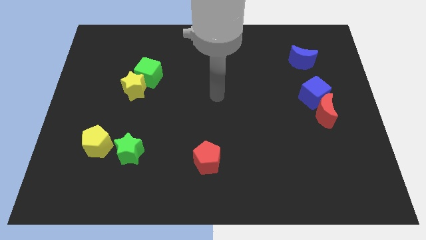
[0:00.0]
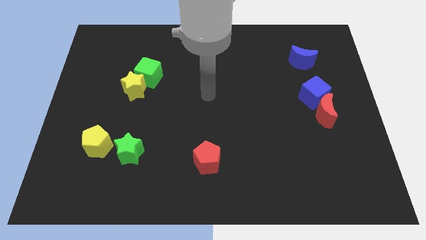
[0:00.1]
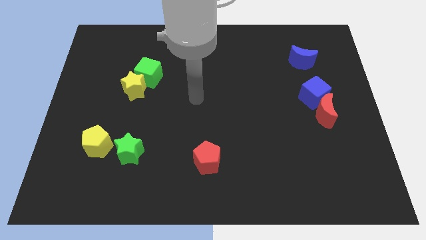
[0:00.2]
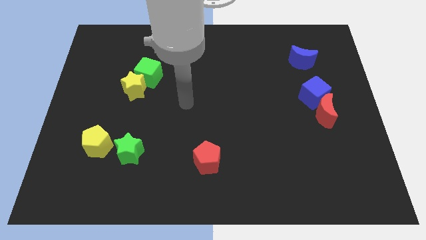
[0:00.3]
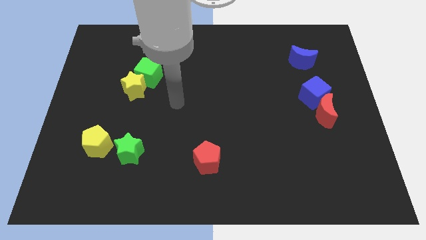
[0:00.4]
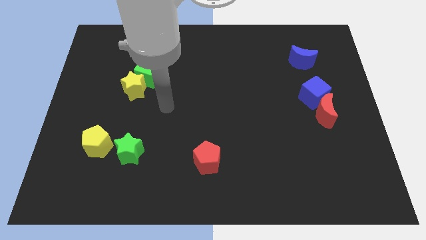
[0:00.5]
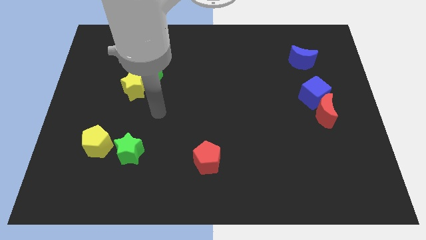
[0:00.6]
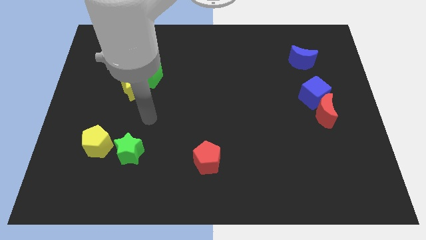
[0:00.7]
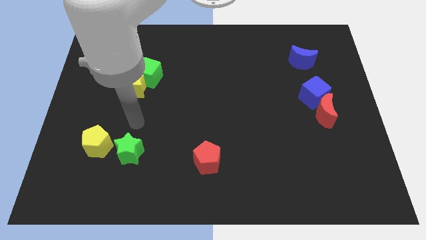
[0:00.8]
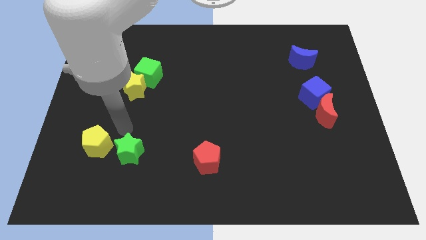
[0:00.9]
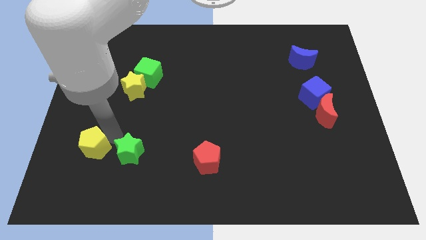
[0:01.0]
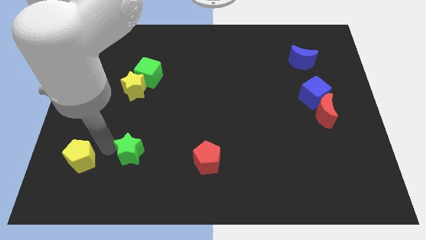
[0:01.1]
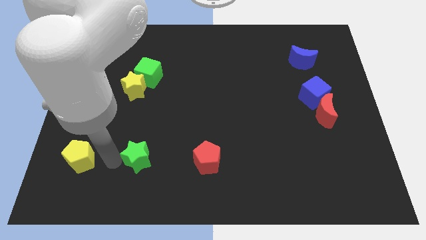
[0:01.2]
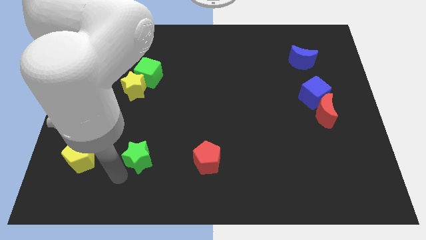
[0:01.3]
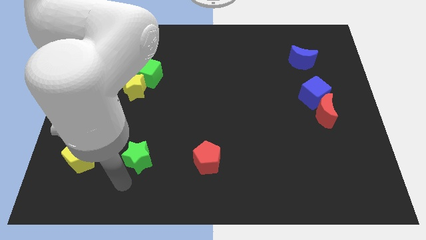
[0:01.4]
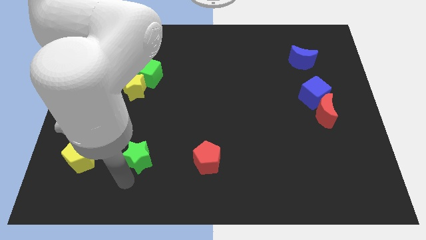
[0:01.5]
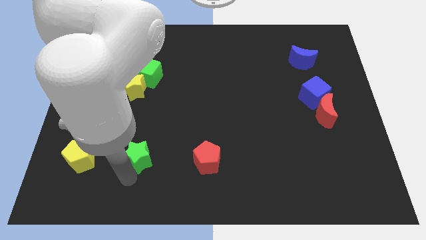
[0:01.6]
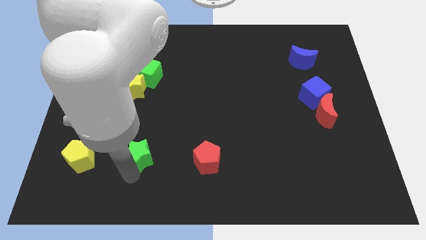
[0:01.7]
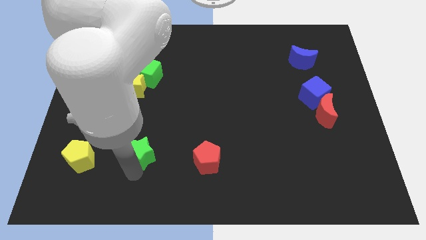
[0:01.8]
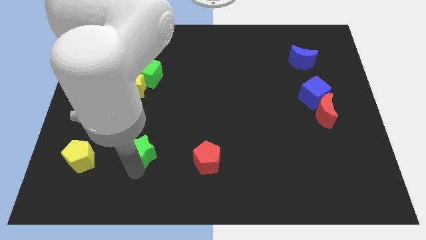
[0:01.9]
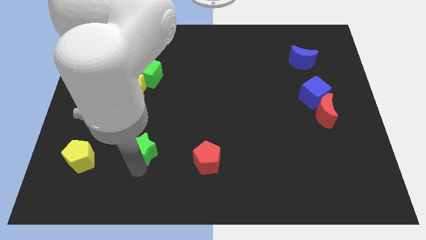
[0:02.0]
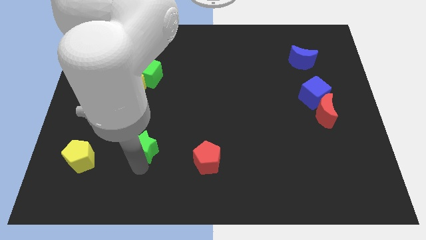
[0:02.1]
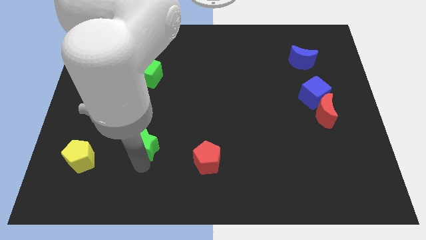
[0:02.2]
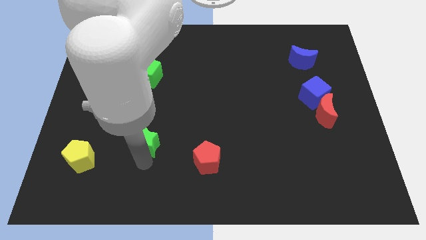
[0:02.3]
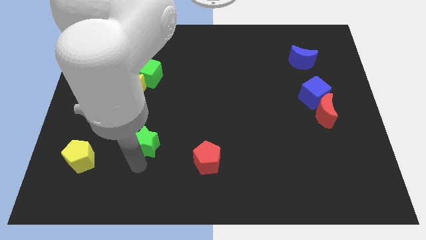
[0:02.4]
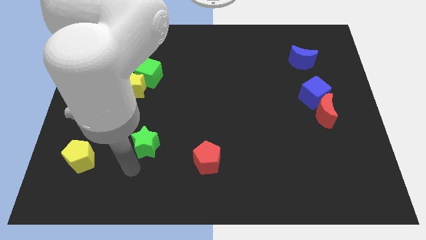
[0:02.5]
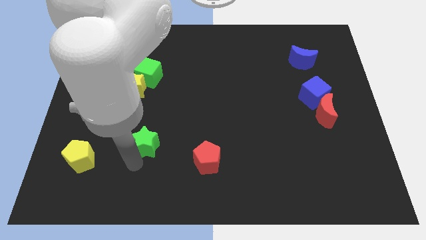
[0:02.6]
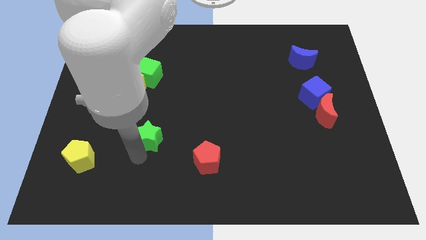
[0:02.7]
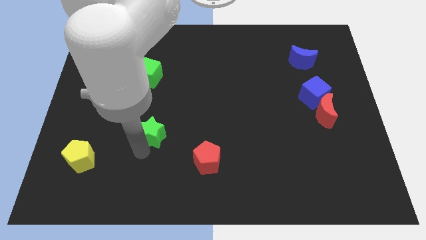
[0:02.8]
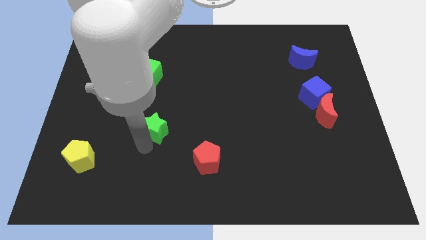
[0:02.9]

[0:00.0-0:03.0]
slide the green star up and right a bit

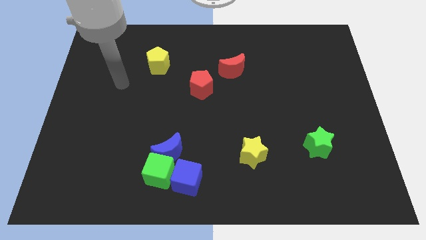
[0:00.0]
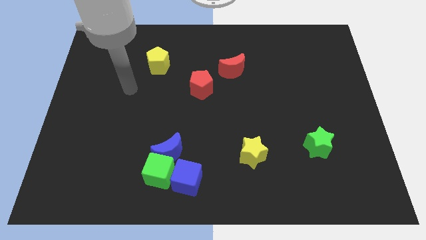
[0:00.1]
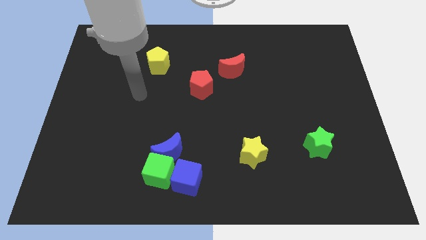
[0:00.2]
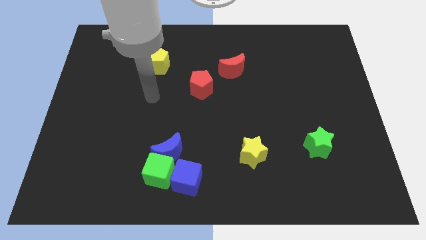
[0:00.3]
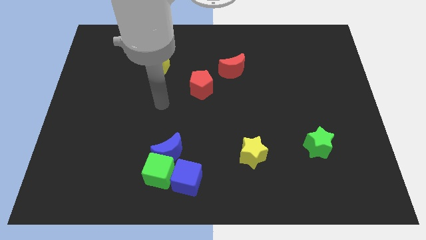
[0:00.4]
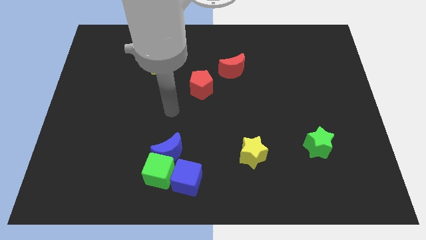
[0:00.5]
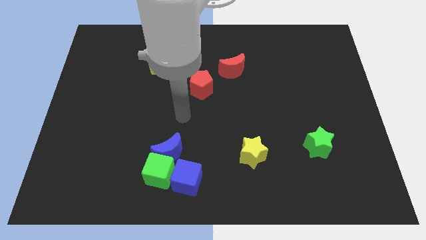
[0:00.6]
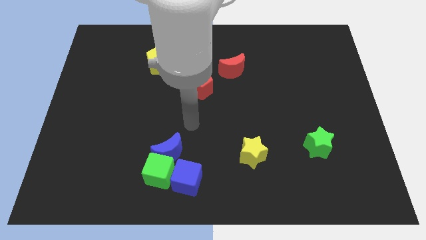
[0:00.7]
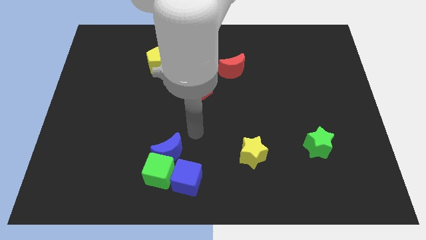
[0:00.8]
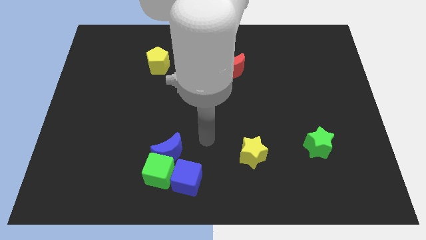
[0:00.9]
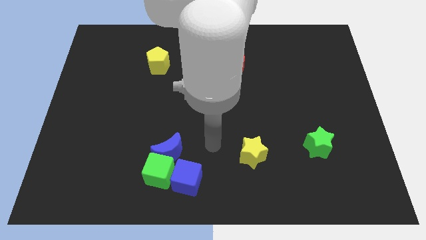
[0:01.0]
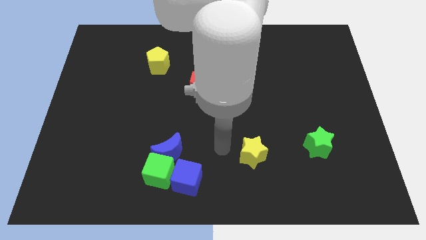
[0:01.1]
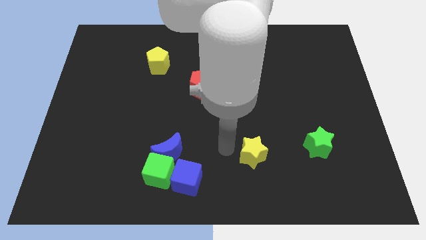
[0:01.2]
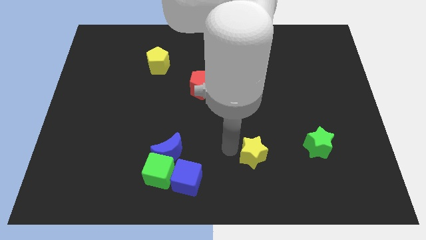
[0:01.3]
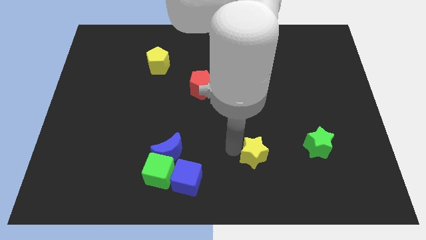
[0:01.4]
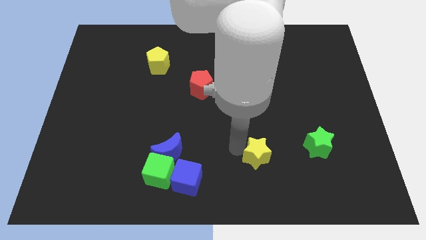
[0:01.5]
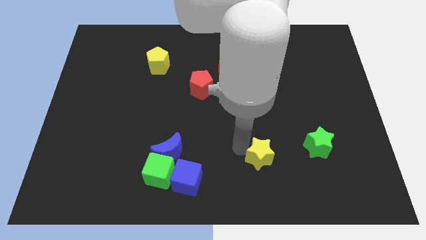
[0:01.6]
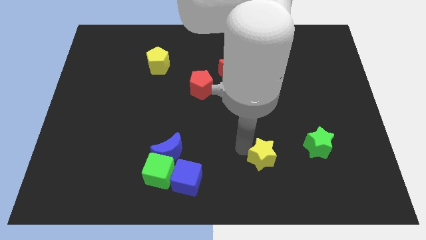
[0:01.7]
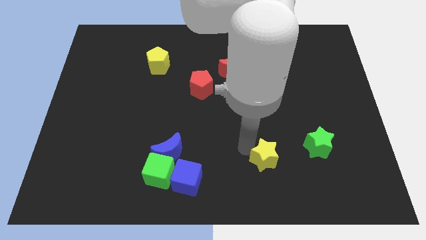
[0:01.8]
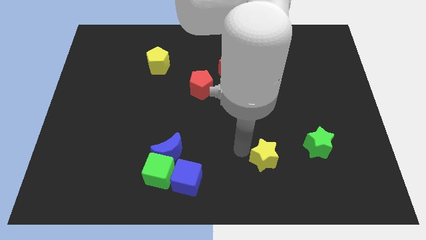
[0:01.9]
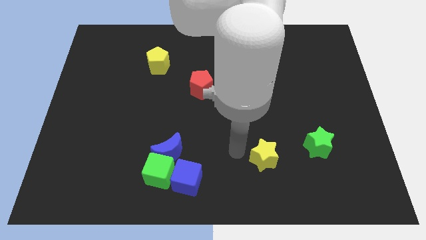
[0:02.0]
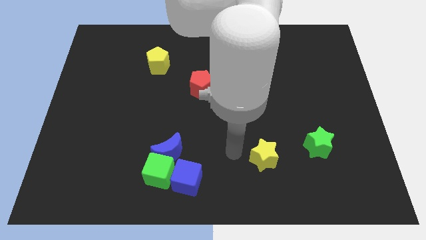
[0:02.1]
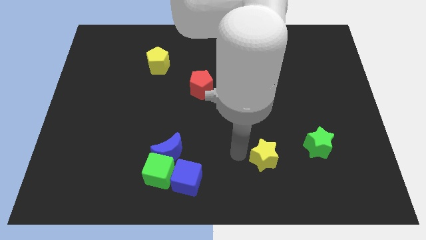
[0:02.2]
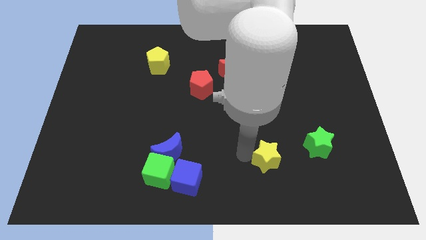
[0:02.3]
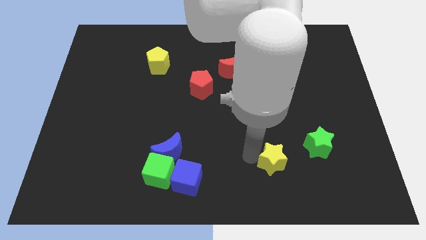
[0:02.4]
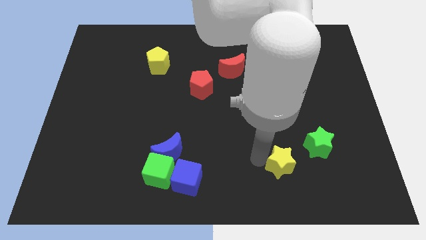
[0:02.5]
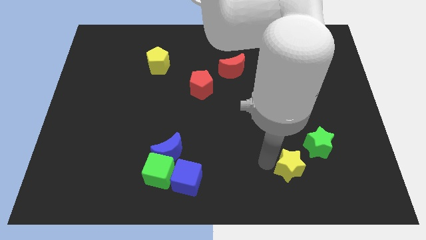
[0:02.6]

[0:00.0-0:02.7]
slightly slide the yellow star right

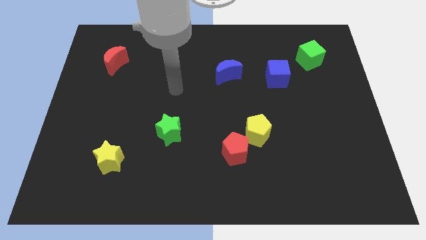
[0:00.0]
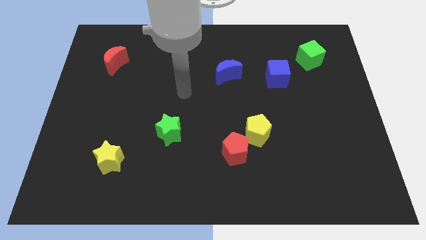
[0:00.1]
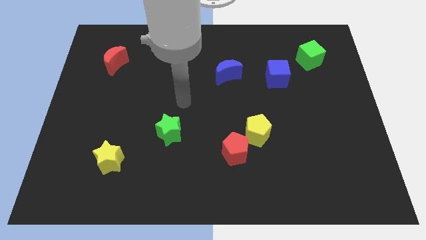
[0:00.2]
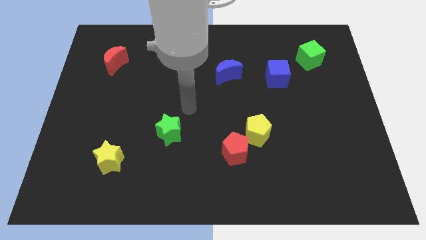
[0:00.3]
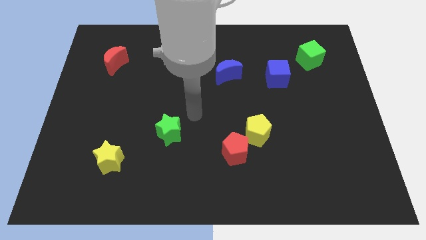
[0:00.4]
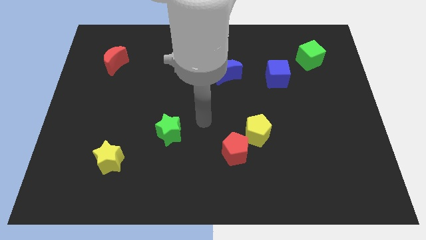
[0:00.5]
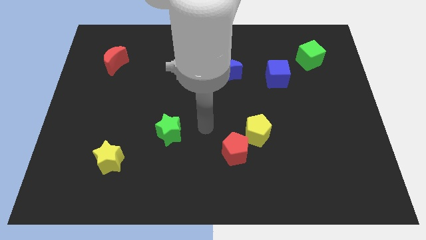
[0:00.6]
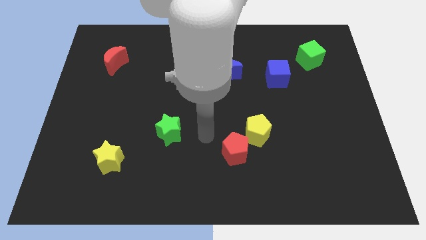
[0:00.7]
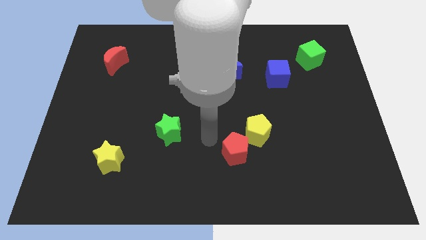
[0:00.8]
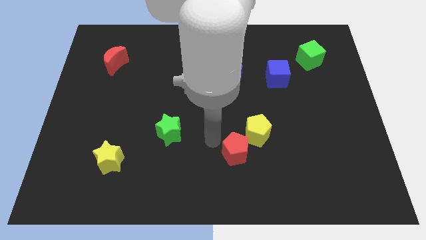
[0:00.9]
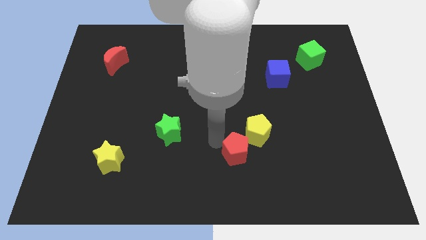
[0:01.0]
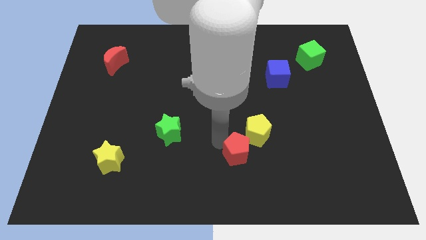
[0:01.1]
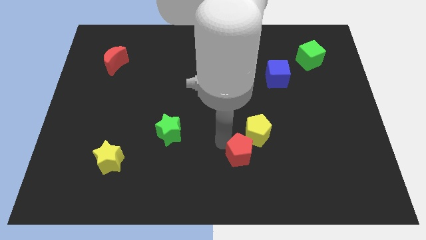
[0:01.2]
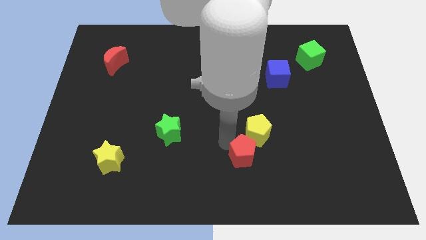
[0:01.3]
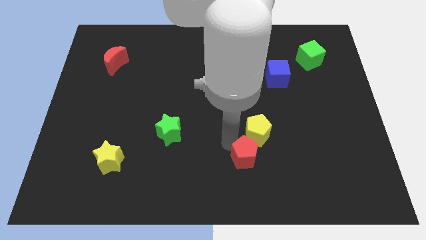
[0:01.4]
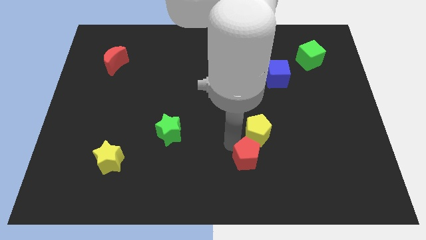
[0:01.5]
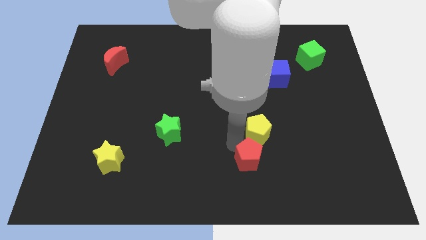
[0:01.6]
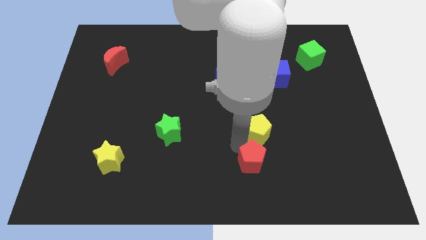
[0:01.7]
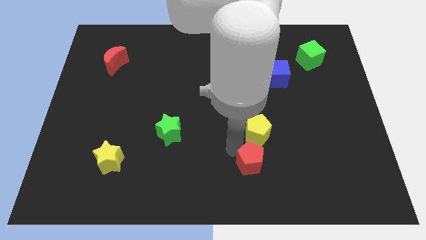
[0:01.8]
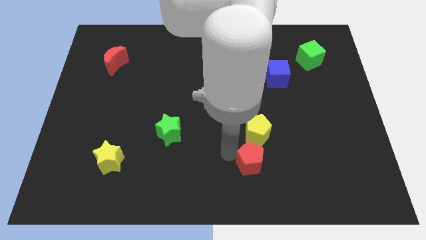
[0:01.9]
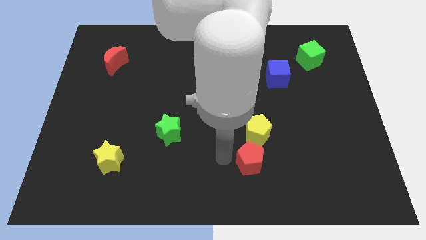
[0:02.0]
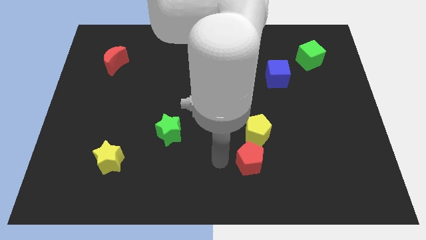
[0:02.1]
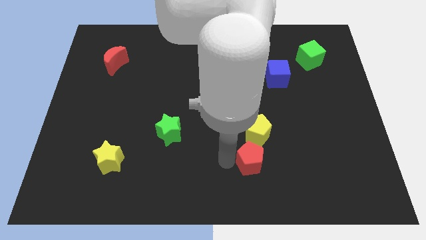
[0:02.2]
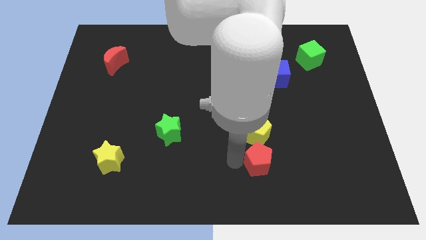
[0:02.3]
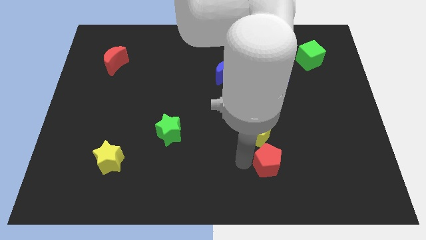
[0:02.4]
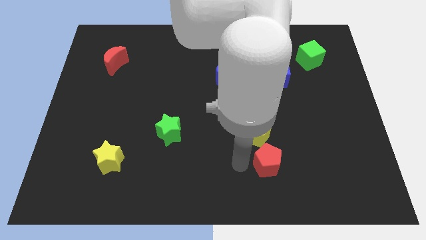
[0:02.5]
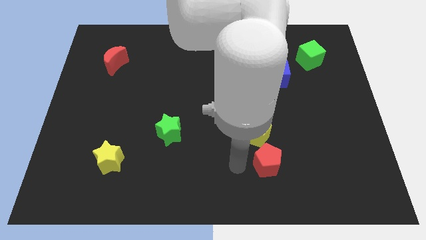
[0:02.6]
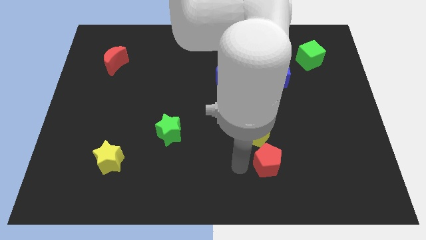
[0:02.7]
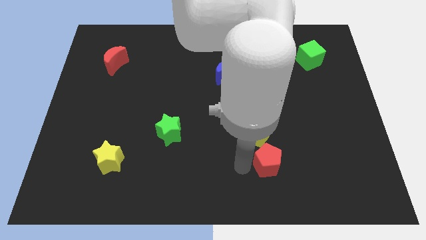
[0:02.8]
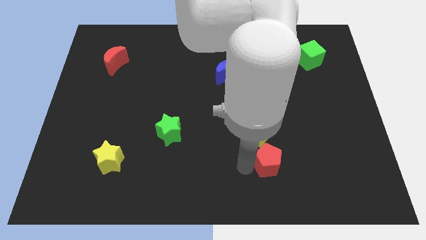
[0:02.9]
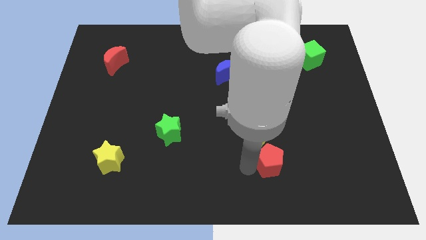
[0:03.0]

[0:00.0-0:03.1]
move the red pentagon a little right
